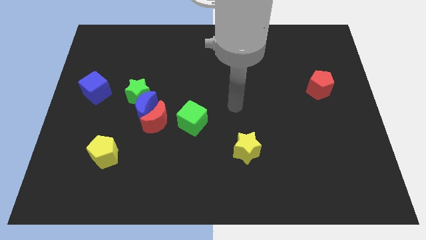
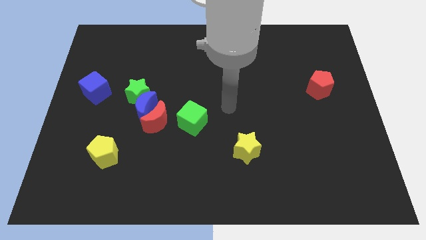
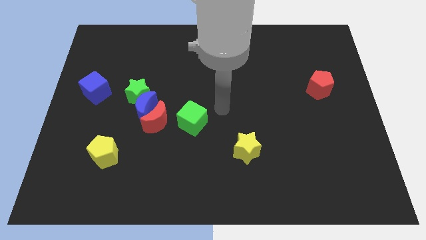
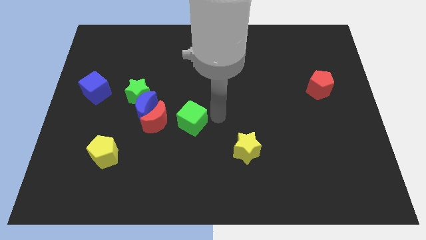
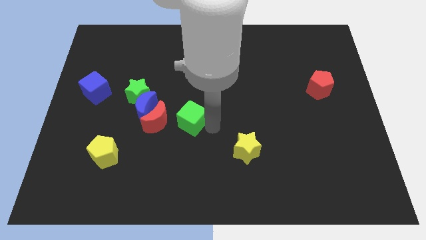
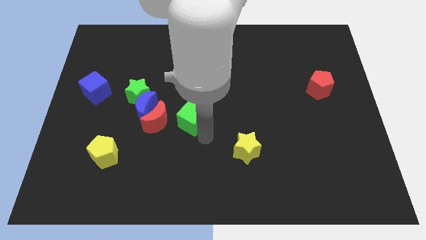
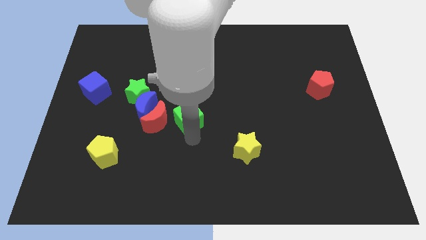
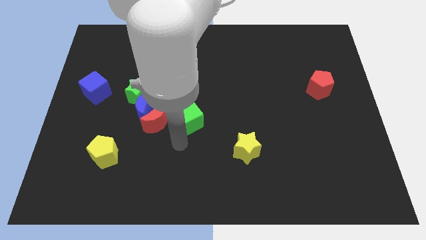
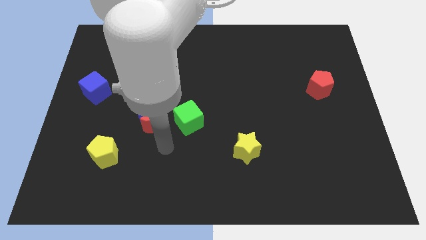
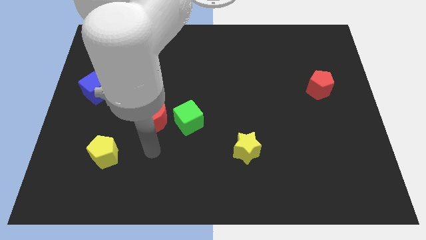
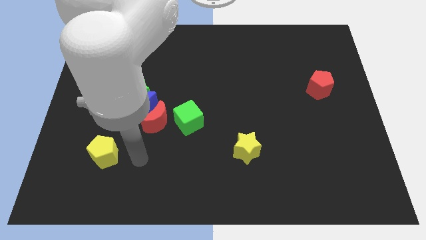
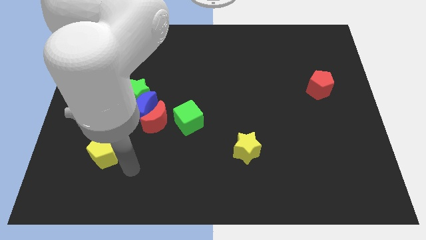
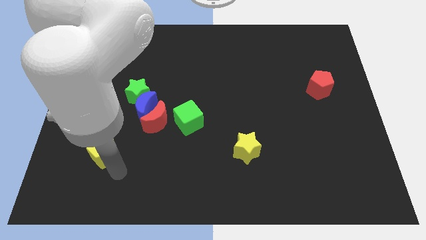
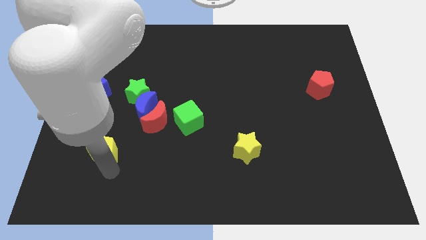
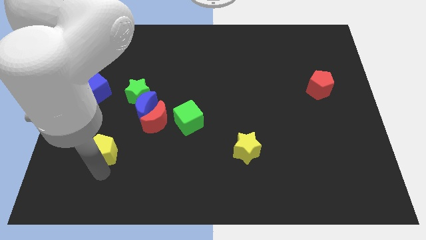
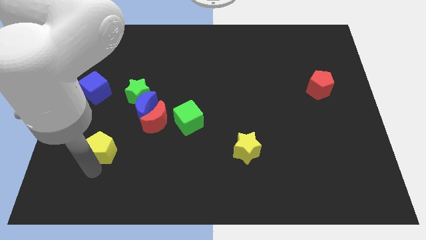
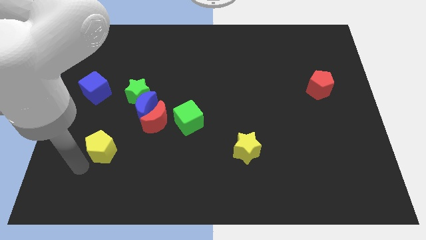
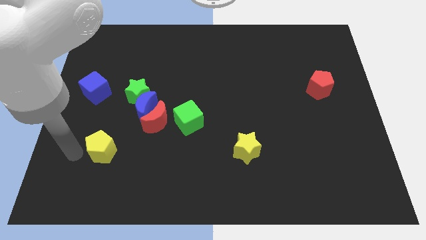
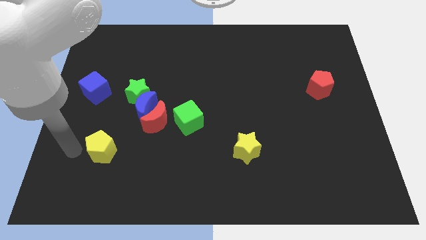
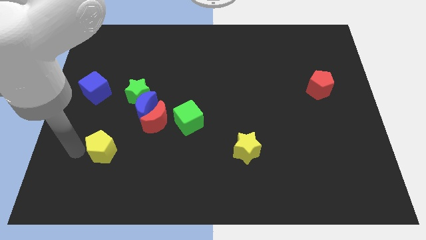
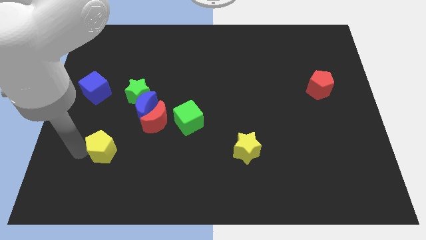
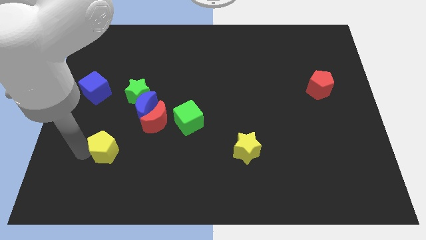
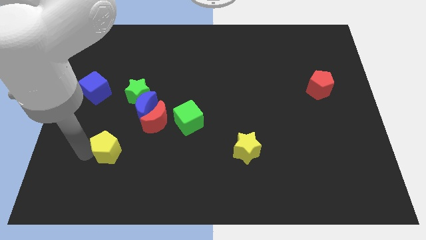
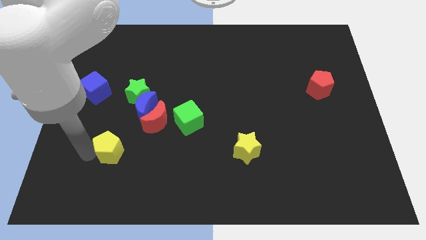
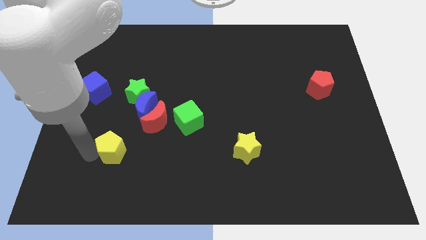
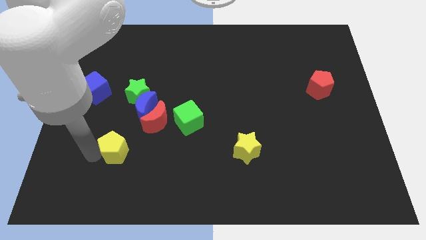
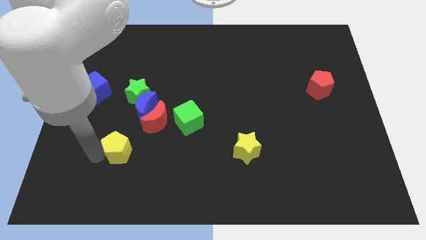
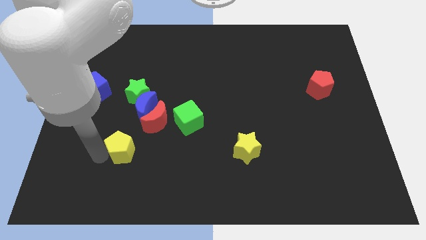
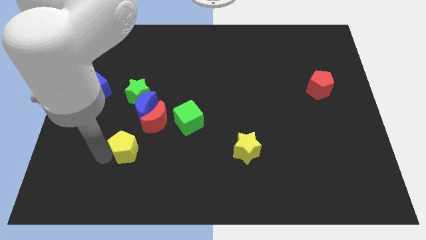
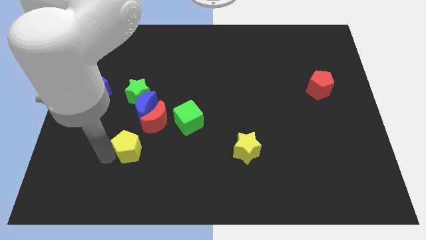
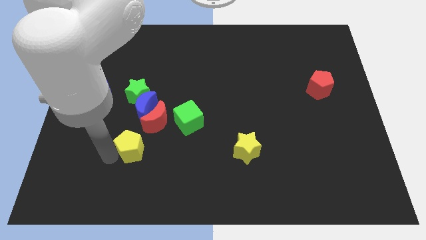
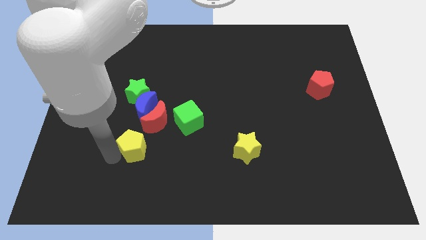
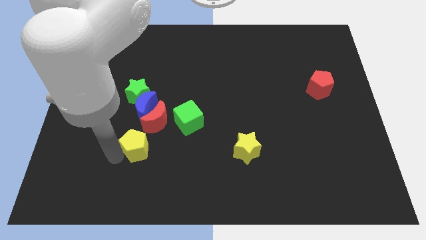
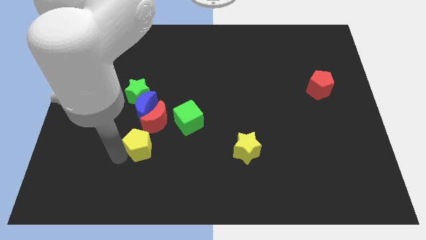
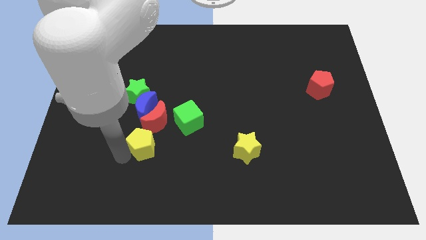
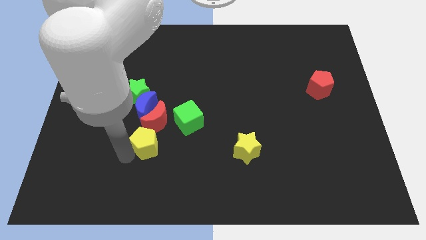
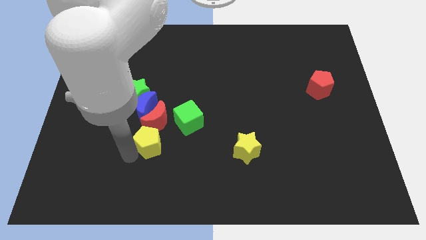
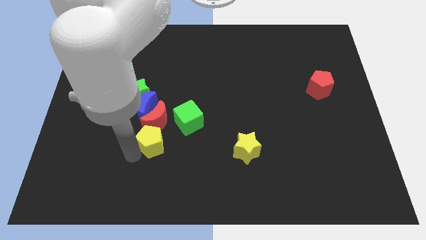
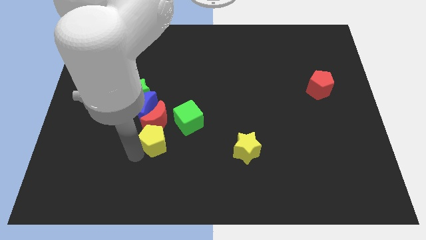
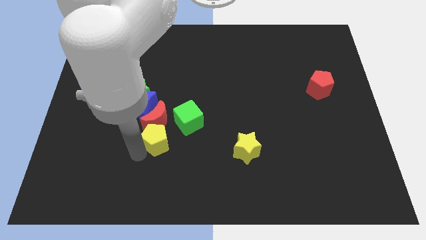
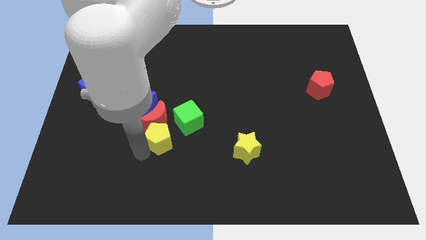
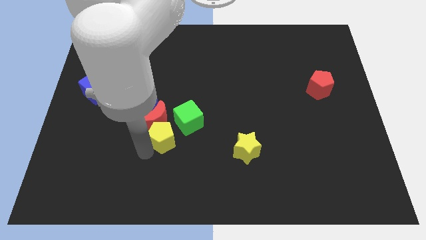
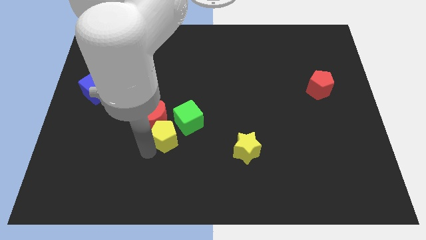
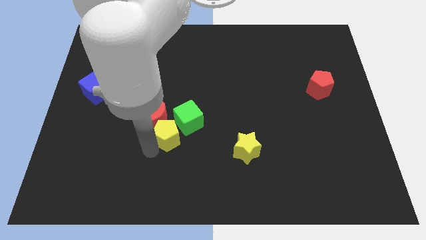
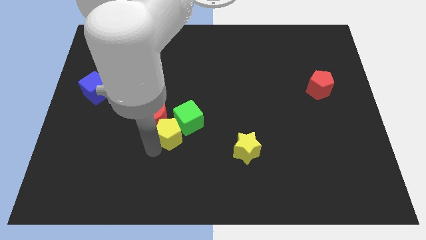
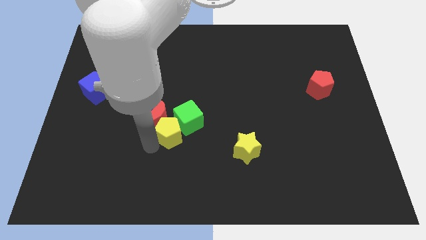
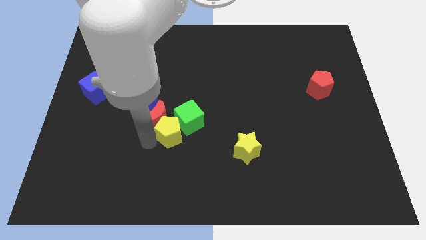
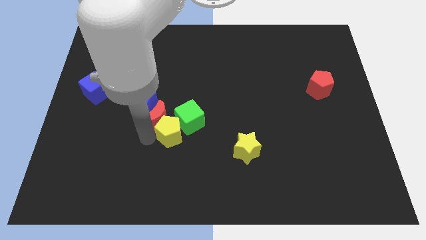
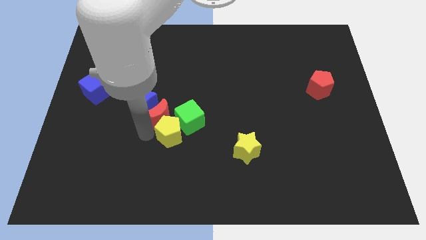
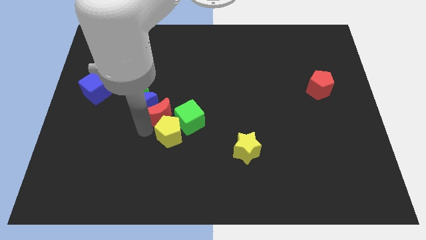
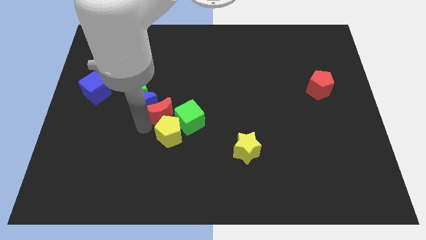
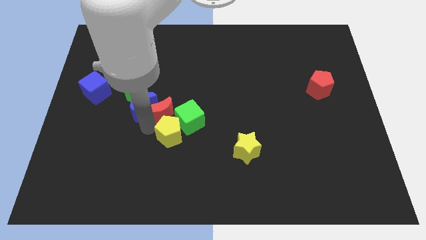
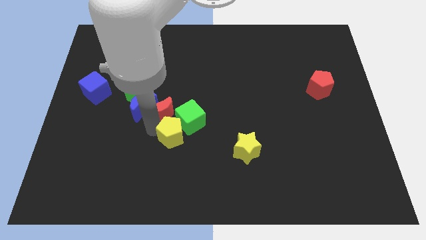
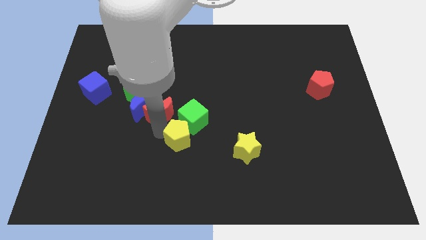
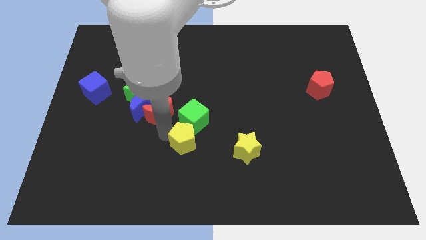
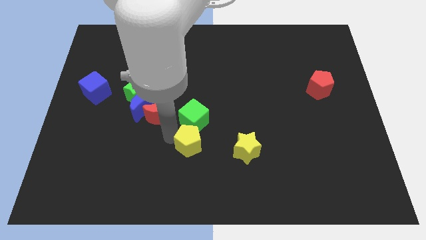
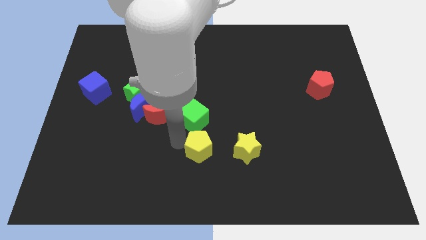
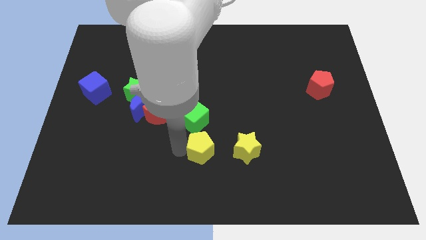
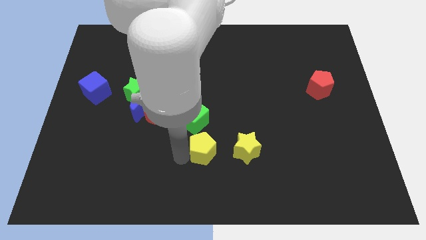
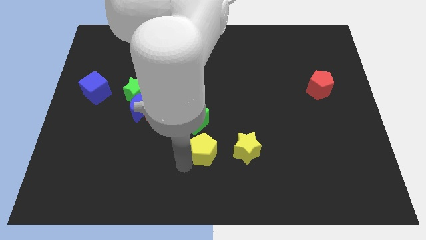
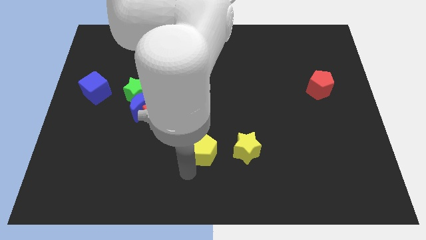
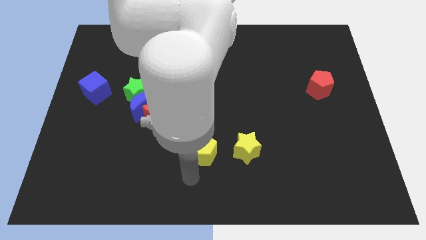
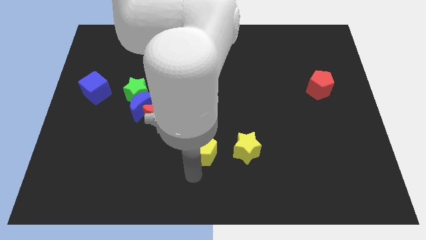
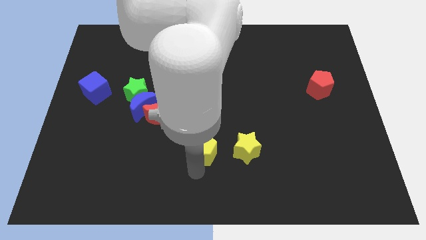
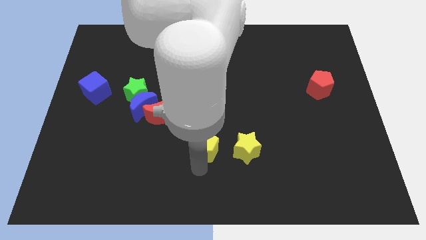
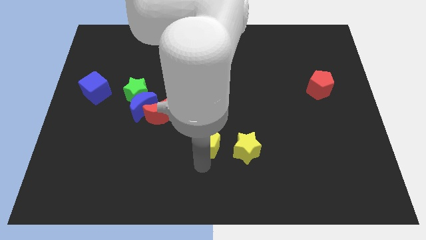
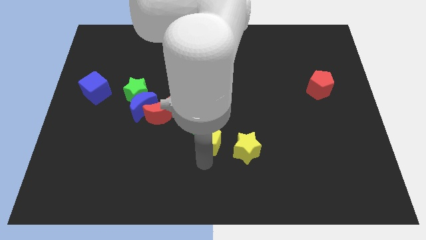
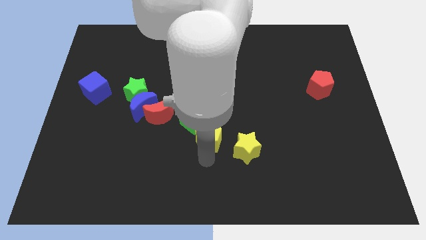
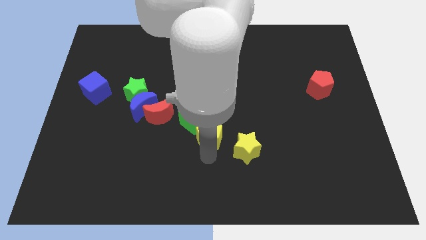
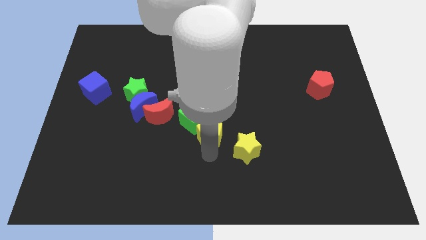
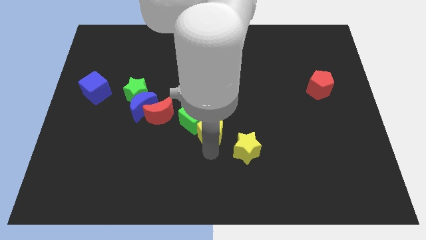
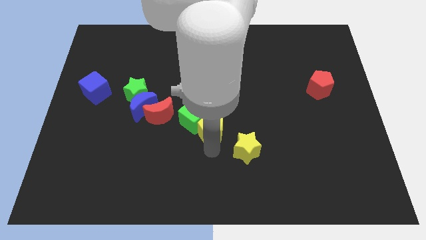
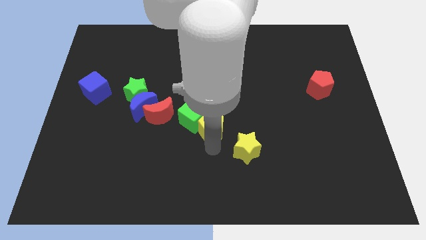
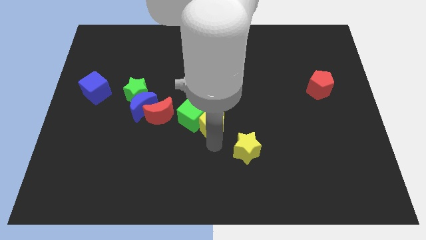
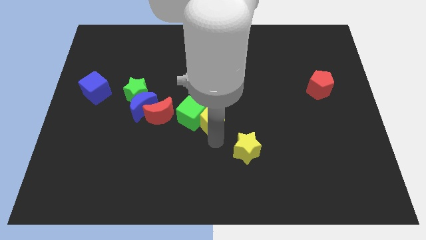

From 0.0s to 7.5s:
move the yellow pentagon to the top right of the green cube

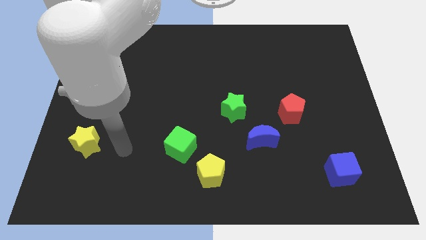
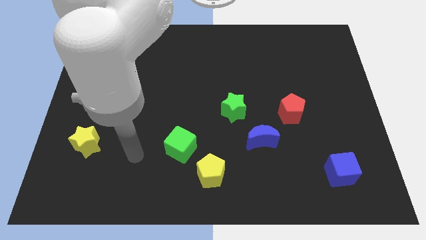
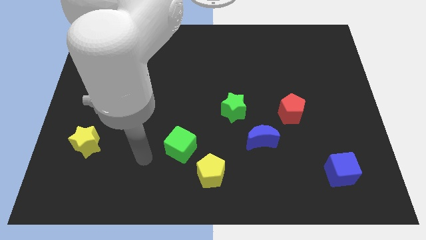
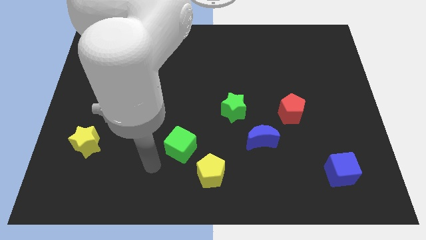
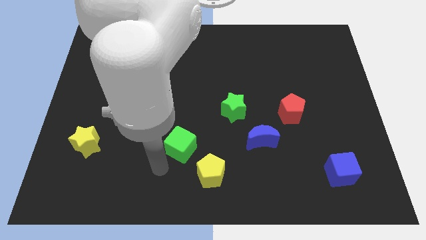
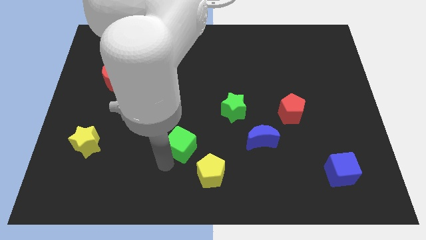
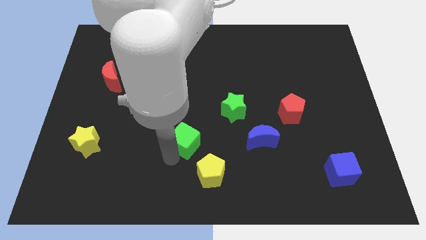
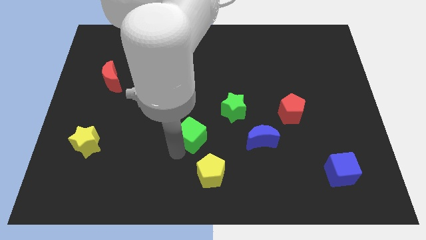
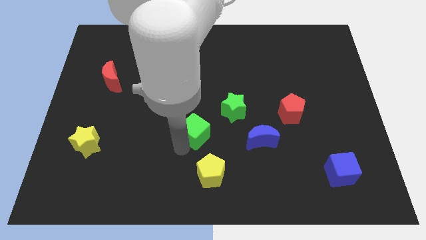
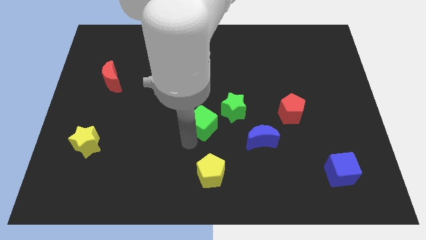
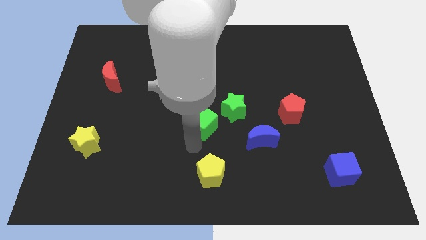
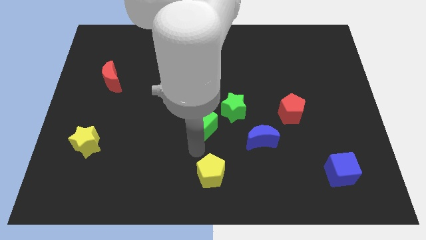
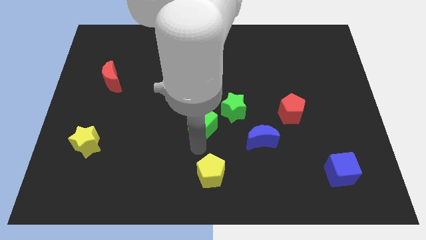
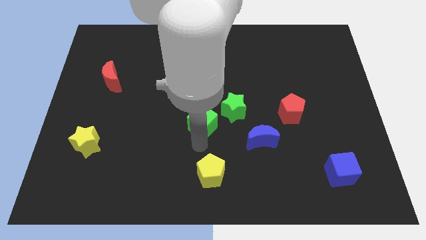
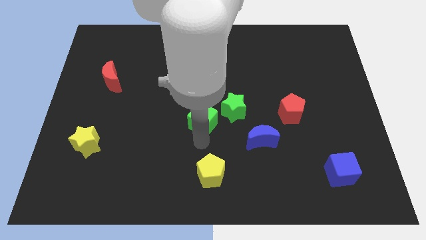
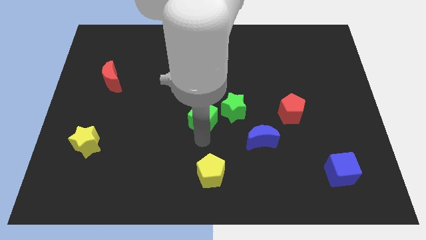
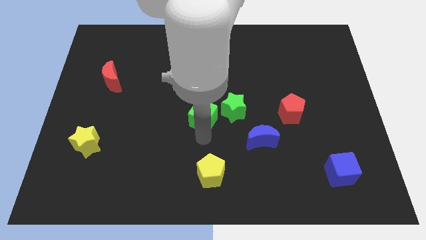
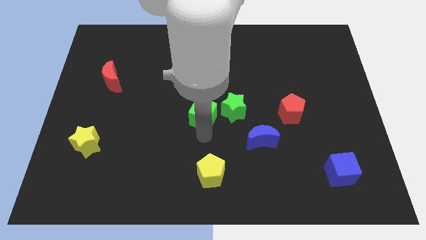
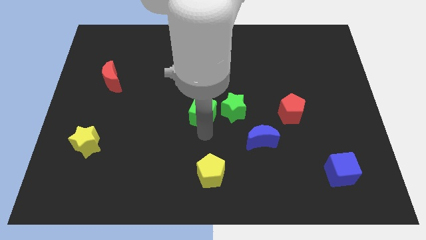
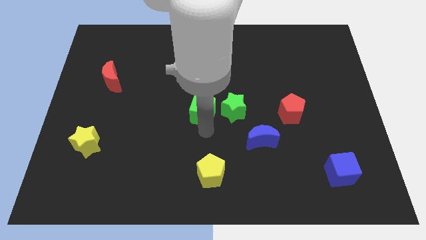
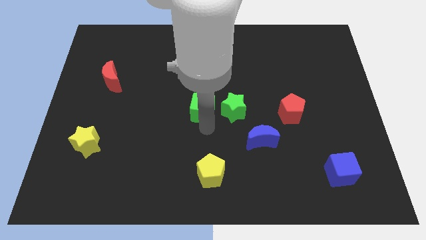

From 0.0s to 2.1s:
put the green cube to the top left of the green star
